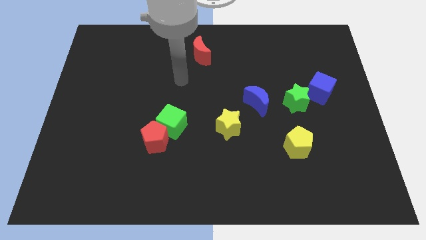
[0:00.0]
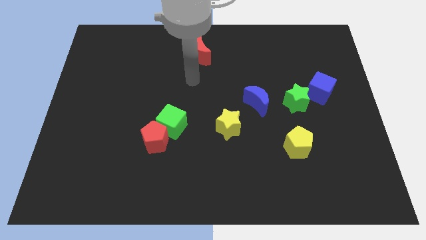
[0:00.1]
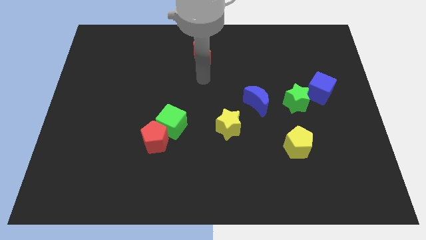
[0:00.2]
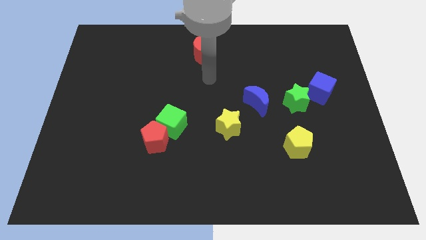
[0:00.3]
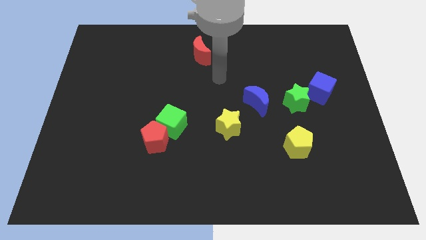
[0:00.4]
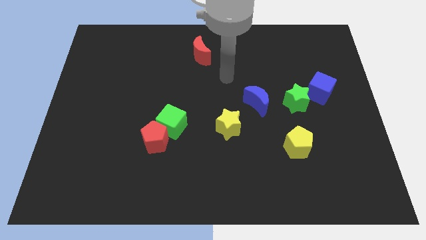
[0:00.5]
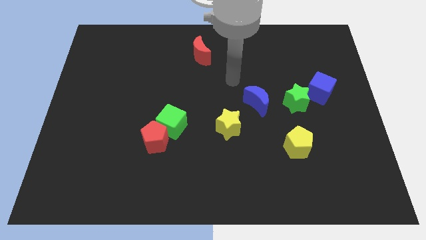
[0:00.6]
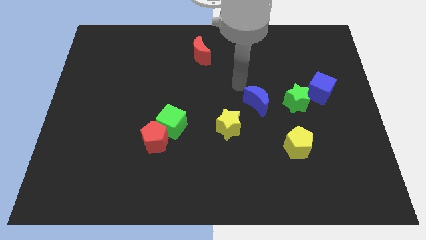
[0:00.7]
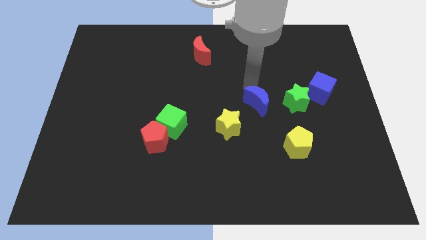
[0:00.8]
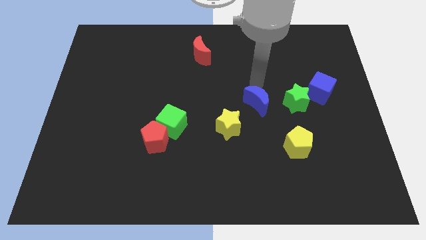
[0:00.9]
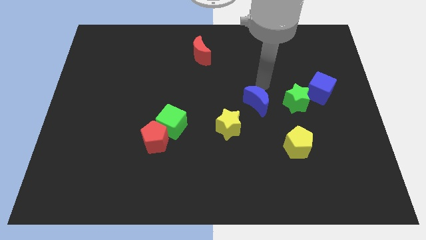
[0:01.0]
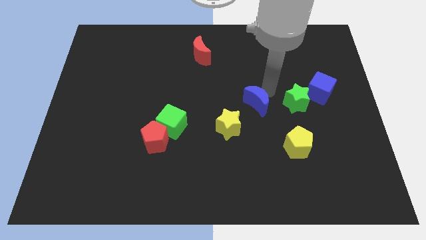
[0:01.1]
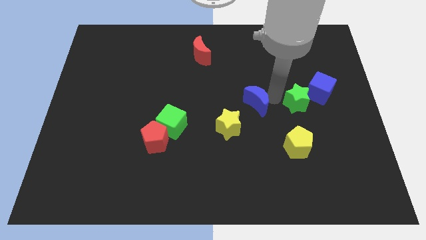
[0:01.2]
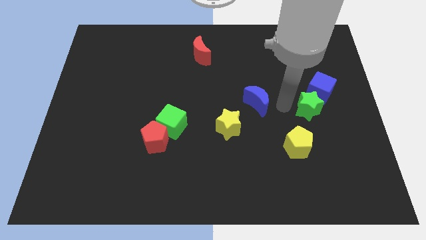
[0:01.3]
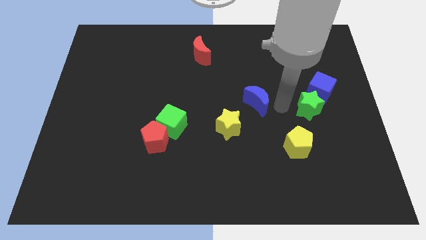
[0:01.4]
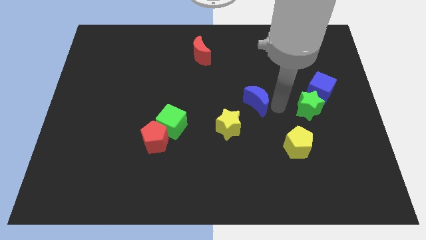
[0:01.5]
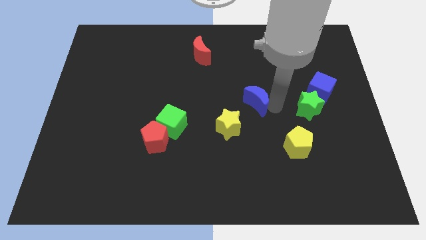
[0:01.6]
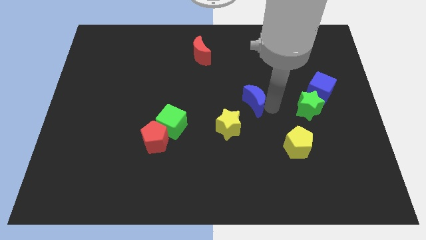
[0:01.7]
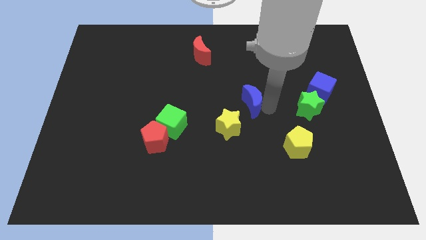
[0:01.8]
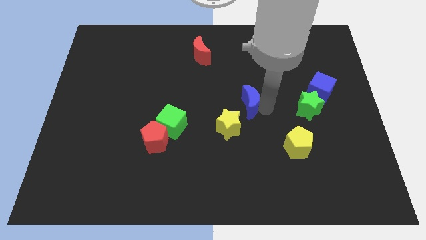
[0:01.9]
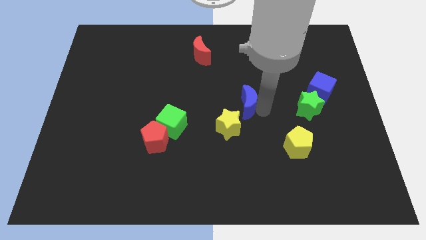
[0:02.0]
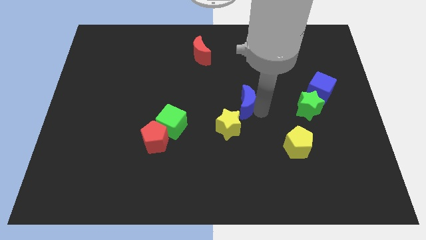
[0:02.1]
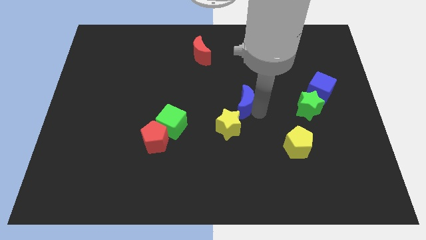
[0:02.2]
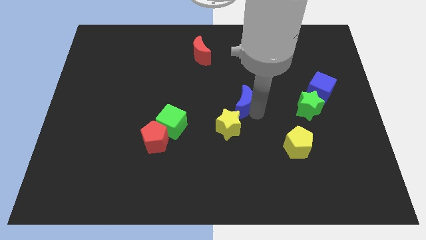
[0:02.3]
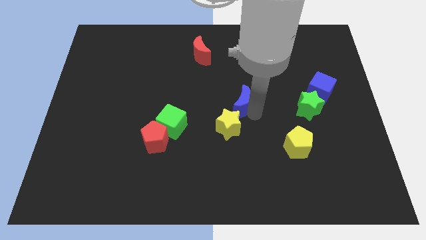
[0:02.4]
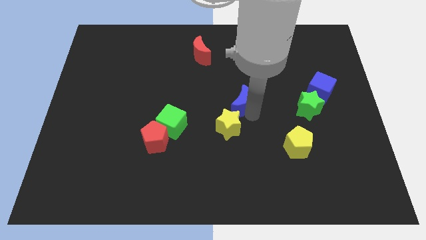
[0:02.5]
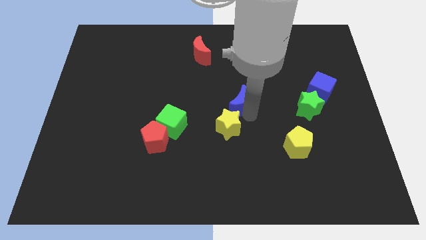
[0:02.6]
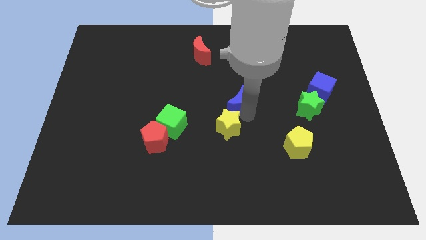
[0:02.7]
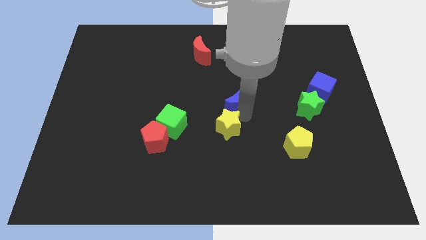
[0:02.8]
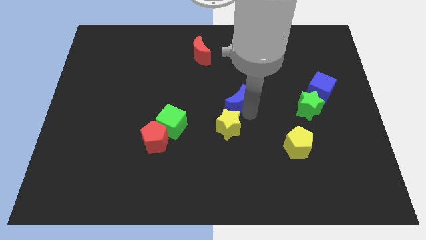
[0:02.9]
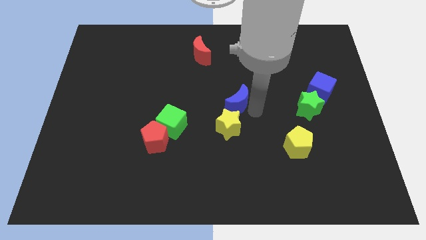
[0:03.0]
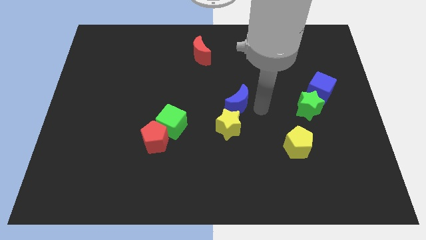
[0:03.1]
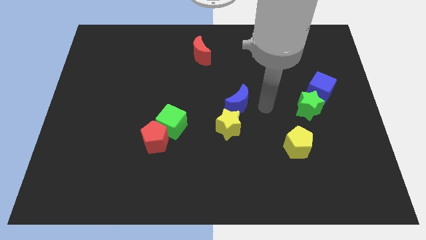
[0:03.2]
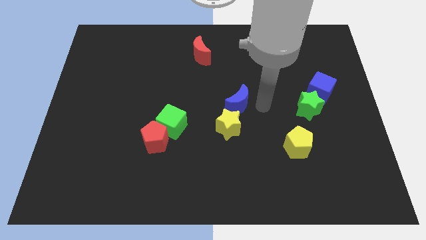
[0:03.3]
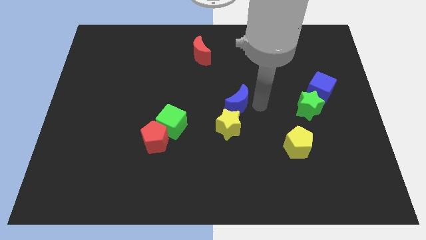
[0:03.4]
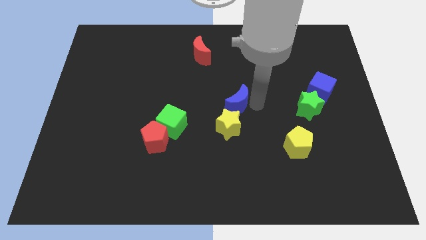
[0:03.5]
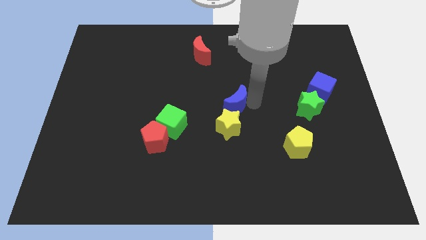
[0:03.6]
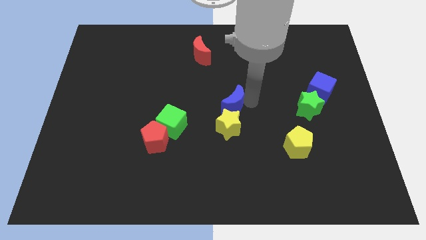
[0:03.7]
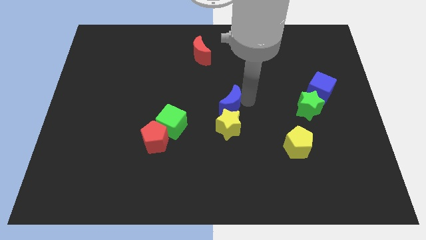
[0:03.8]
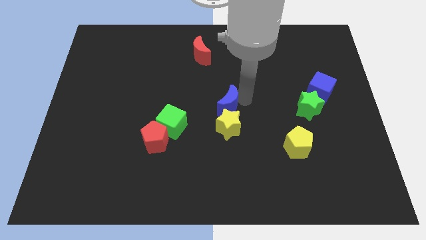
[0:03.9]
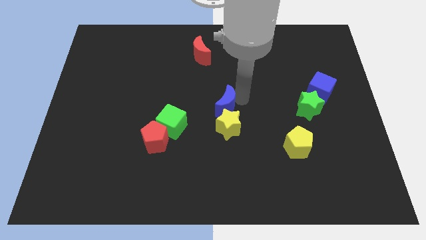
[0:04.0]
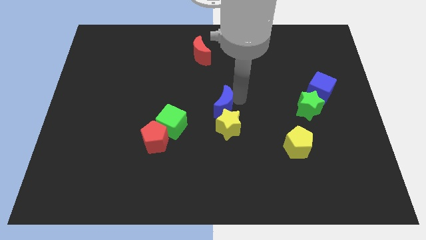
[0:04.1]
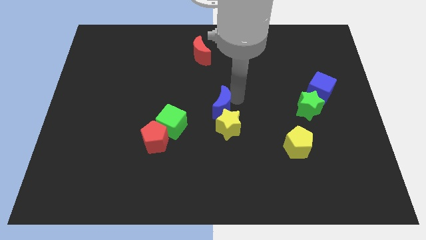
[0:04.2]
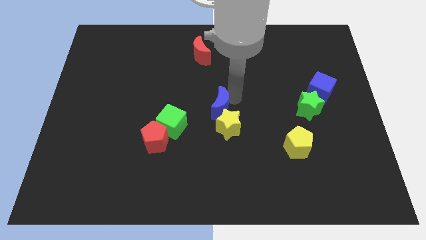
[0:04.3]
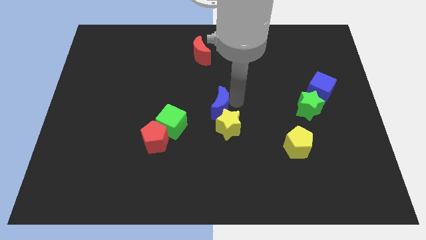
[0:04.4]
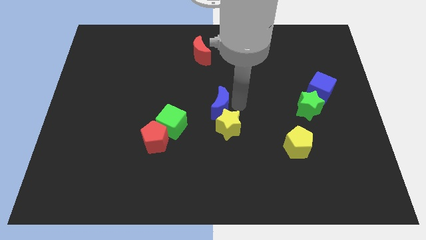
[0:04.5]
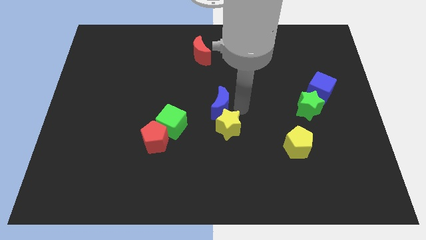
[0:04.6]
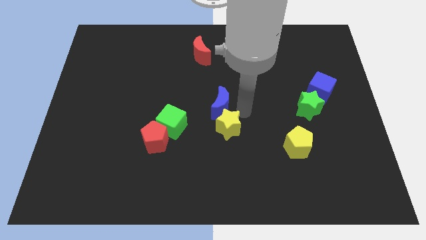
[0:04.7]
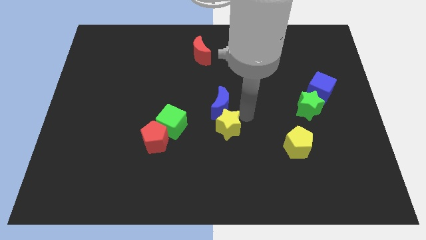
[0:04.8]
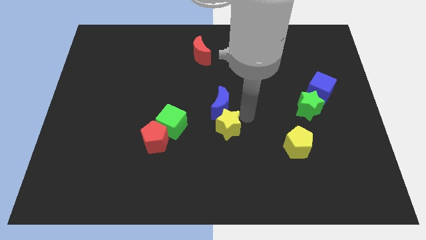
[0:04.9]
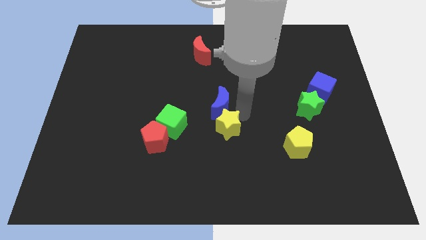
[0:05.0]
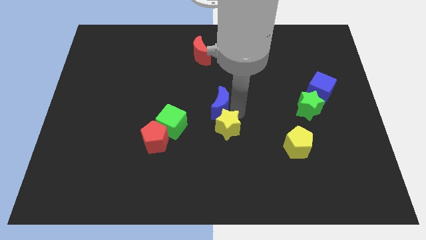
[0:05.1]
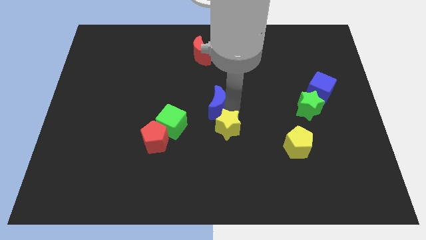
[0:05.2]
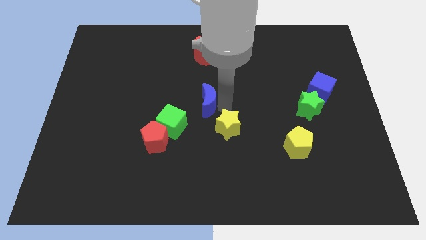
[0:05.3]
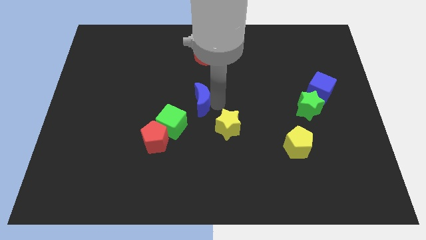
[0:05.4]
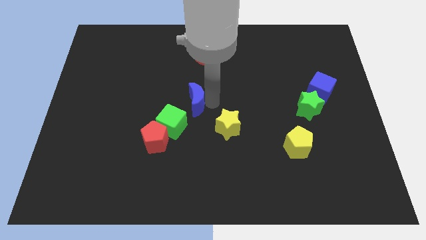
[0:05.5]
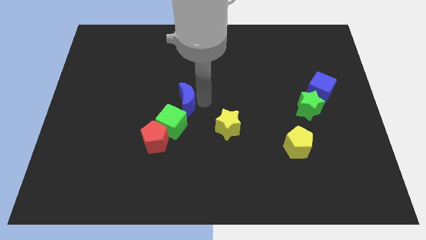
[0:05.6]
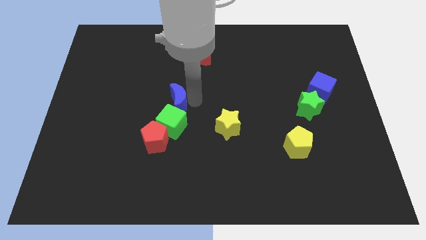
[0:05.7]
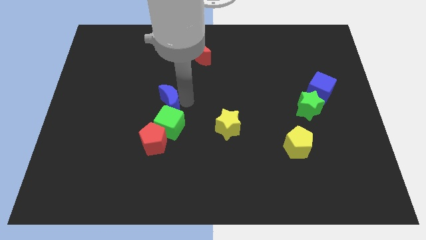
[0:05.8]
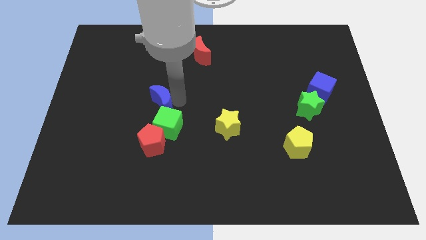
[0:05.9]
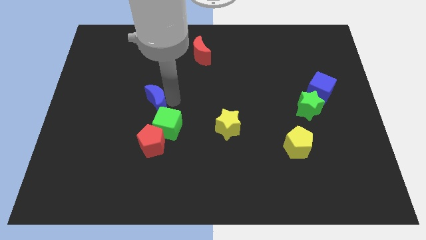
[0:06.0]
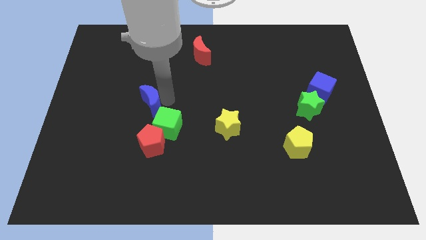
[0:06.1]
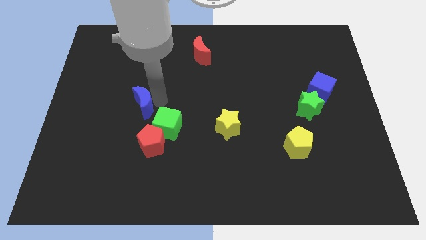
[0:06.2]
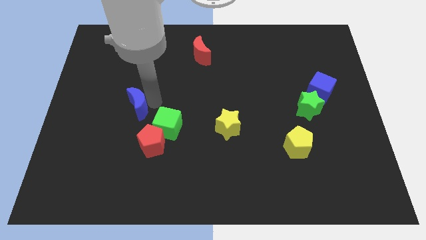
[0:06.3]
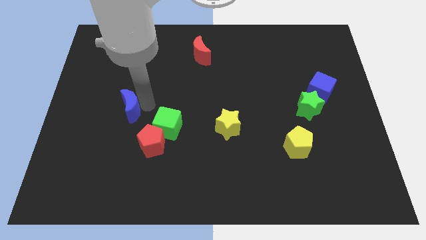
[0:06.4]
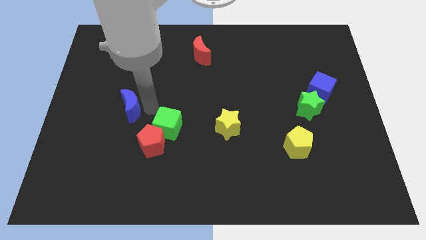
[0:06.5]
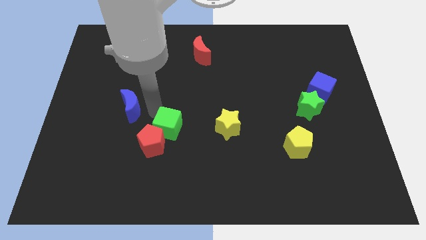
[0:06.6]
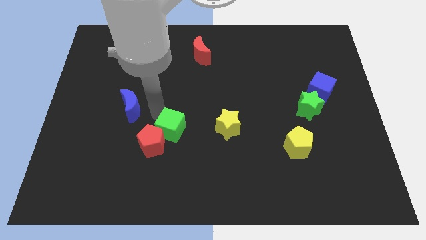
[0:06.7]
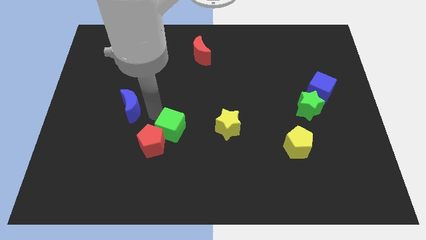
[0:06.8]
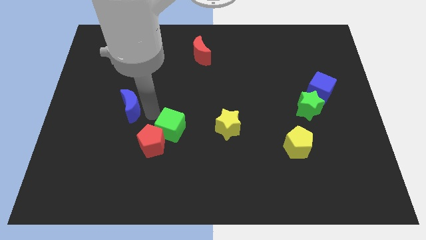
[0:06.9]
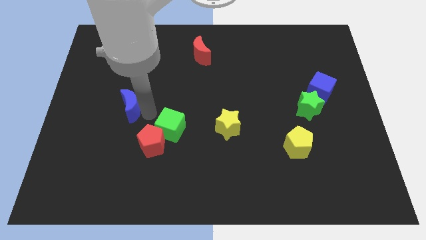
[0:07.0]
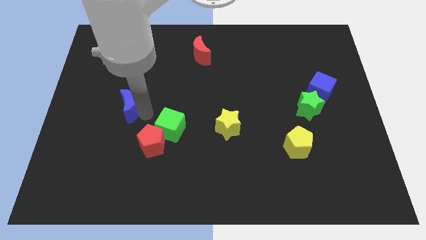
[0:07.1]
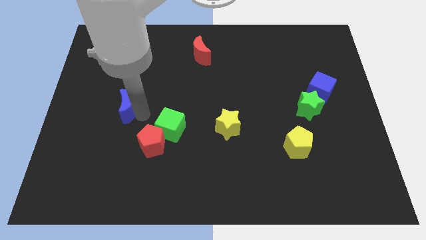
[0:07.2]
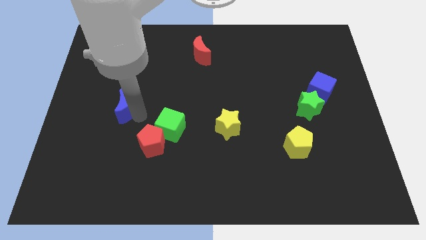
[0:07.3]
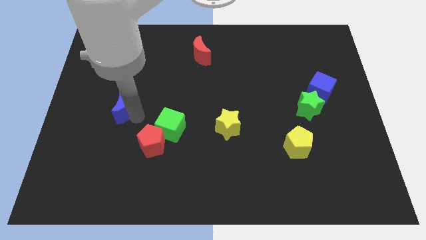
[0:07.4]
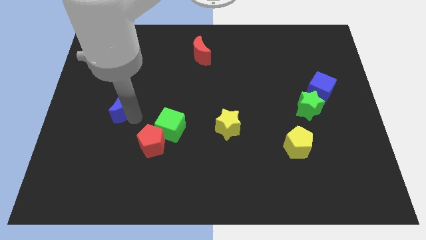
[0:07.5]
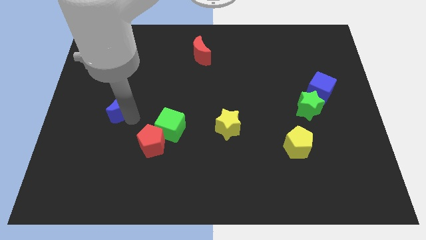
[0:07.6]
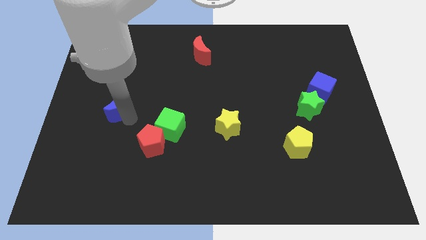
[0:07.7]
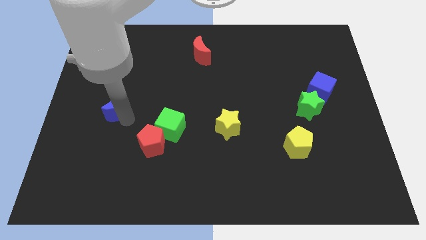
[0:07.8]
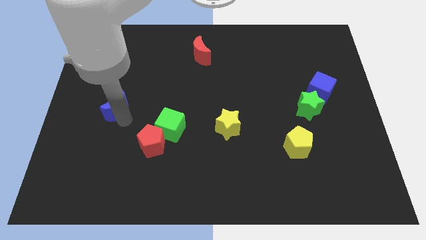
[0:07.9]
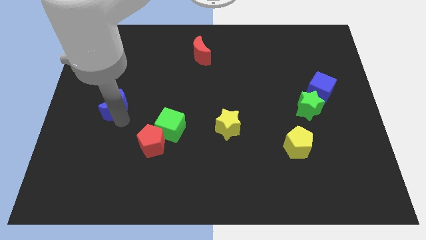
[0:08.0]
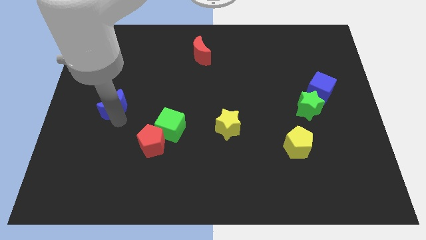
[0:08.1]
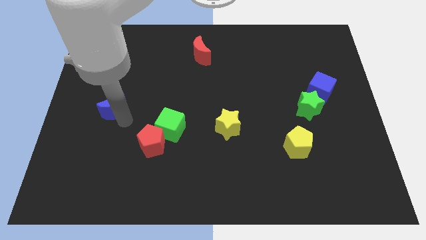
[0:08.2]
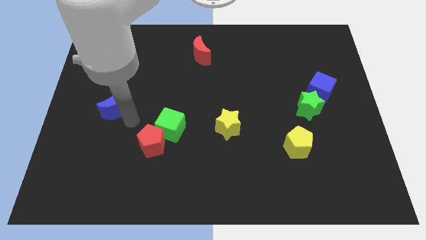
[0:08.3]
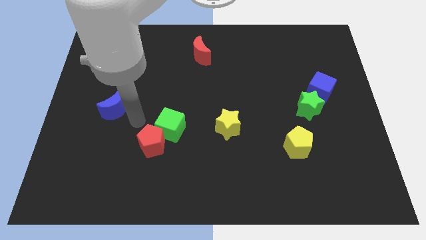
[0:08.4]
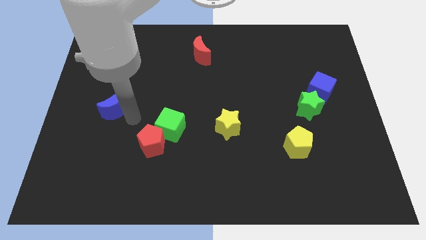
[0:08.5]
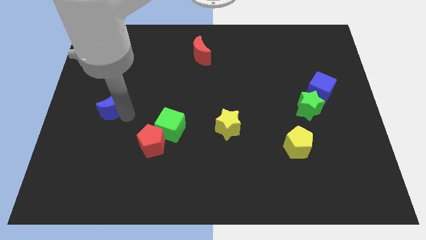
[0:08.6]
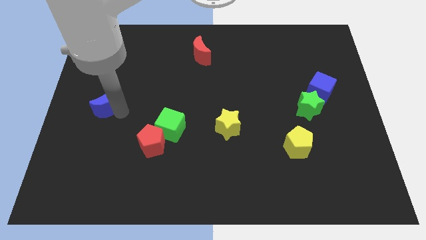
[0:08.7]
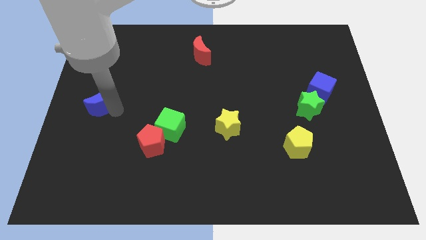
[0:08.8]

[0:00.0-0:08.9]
push the blue moon to the left side of the board
